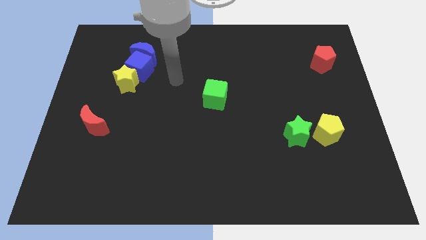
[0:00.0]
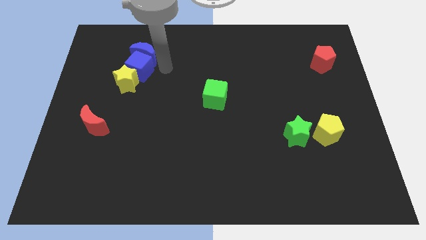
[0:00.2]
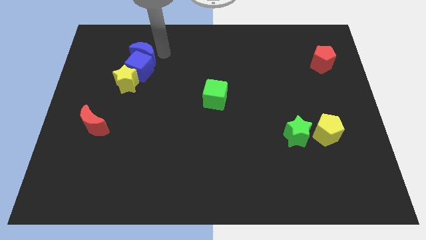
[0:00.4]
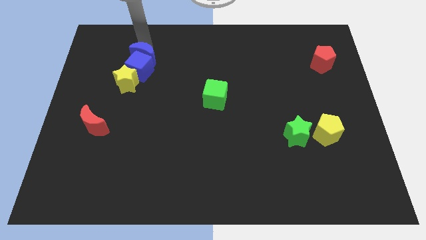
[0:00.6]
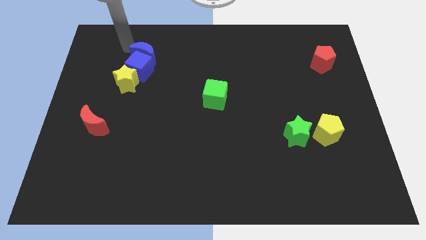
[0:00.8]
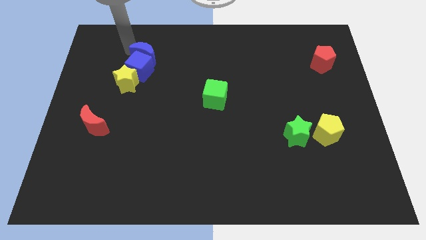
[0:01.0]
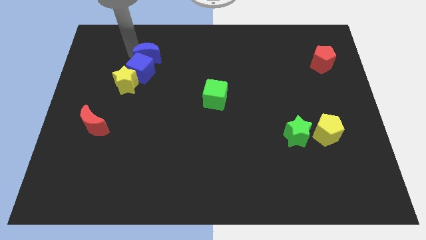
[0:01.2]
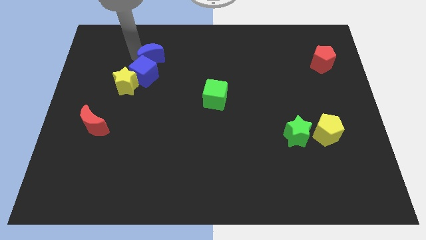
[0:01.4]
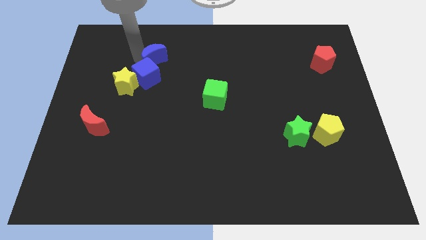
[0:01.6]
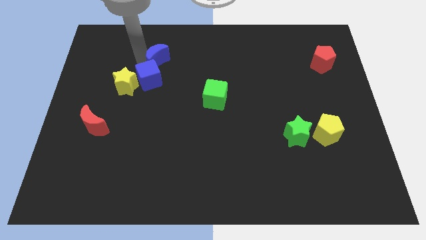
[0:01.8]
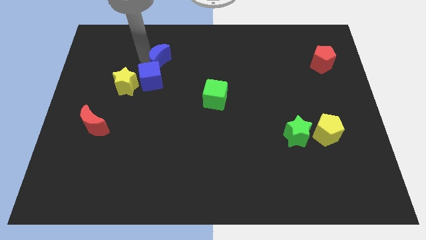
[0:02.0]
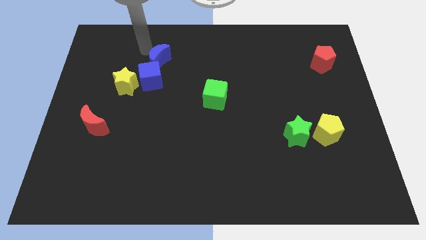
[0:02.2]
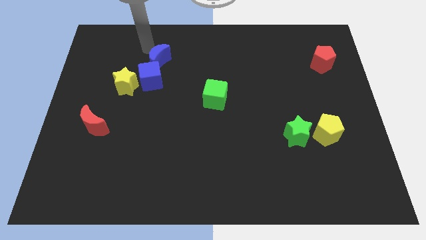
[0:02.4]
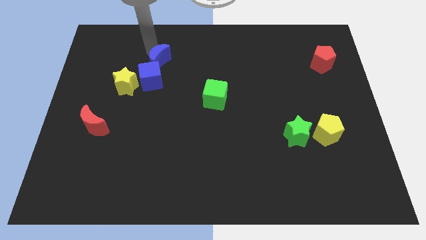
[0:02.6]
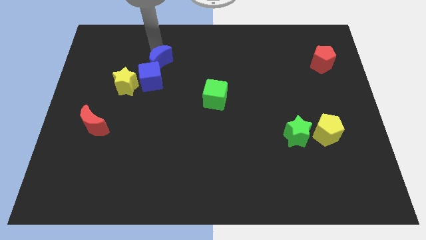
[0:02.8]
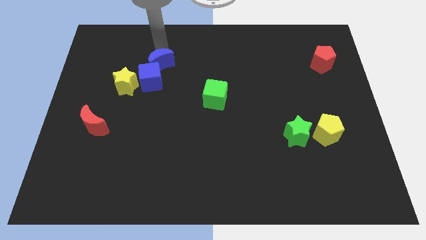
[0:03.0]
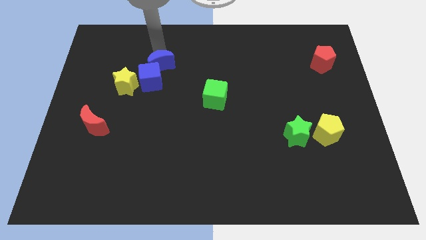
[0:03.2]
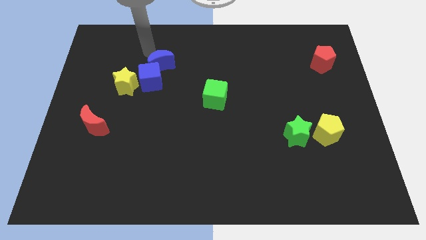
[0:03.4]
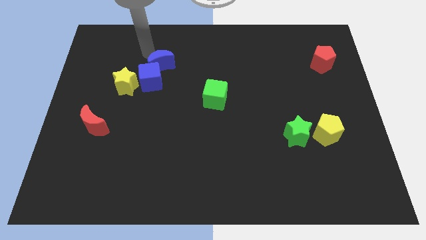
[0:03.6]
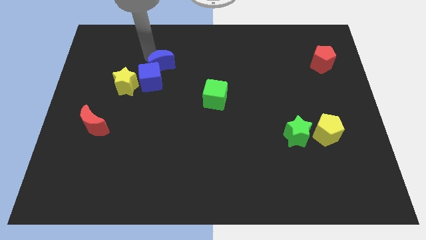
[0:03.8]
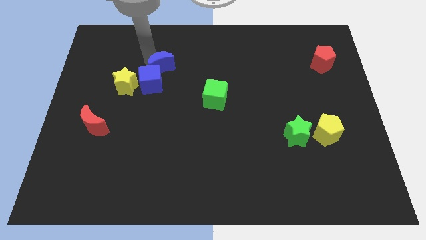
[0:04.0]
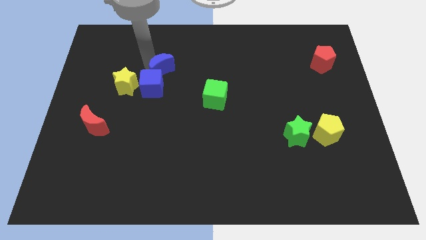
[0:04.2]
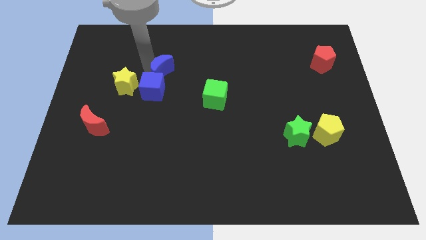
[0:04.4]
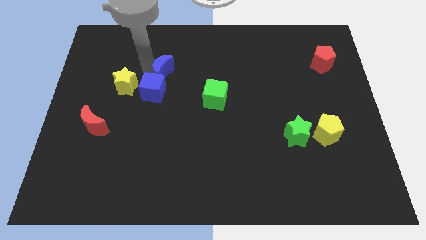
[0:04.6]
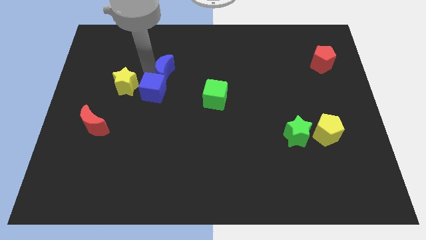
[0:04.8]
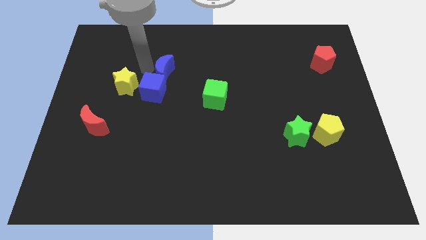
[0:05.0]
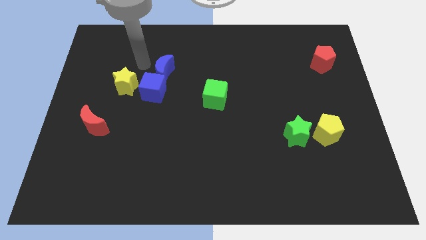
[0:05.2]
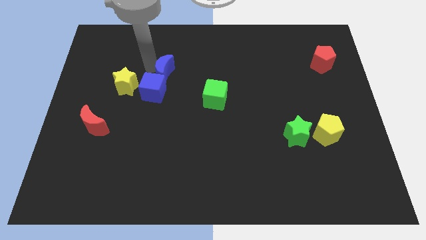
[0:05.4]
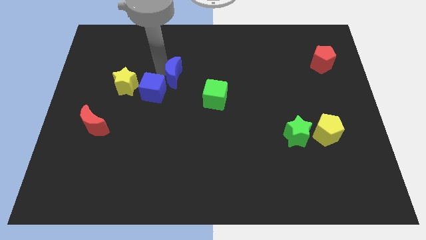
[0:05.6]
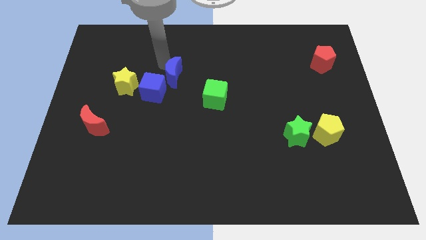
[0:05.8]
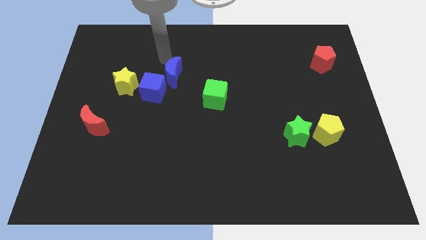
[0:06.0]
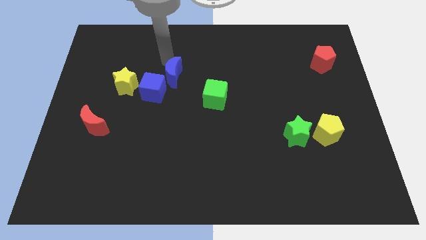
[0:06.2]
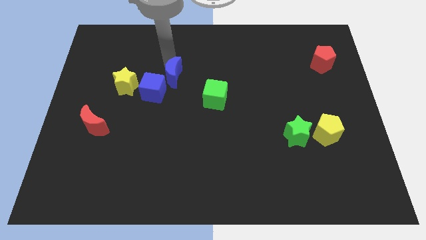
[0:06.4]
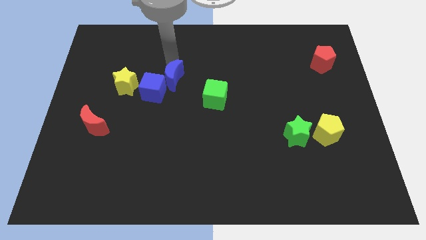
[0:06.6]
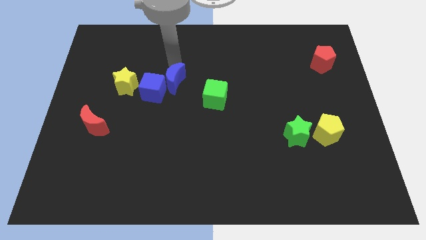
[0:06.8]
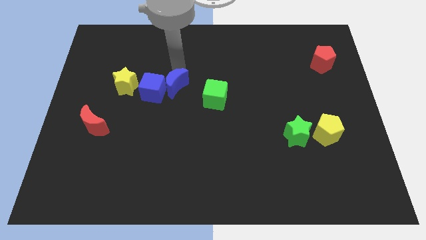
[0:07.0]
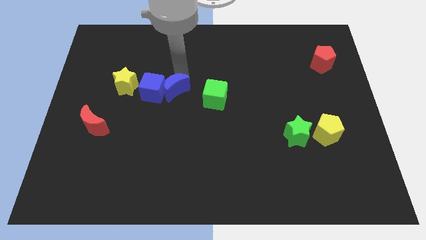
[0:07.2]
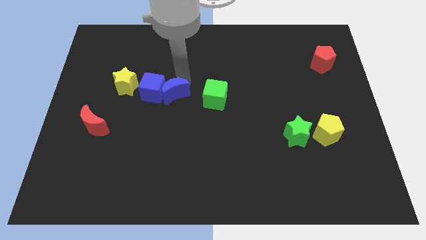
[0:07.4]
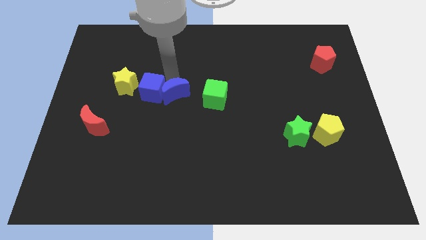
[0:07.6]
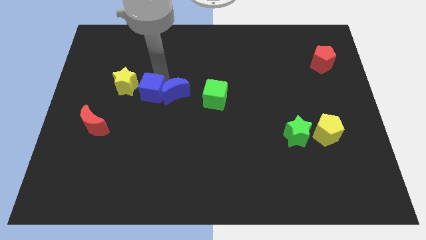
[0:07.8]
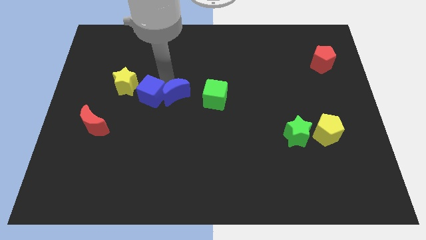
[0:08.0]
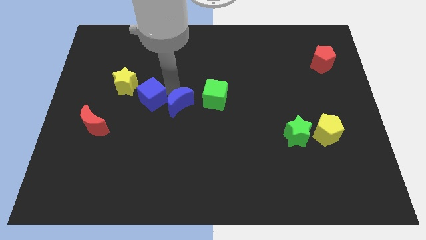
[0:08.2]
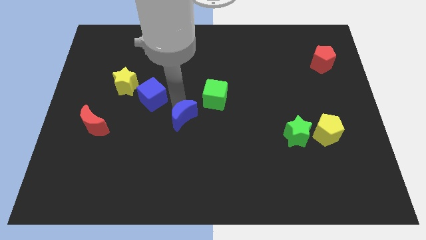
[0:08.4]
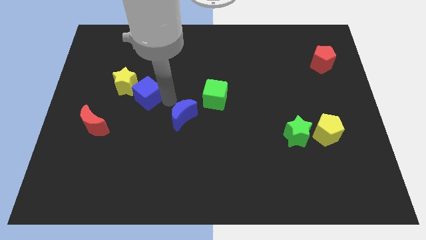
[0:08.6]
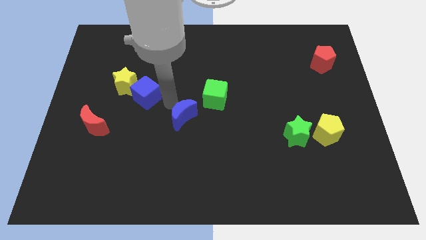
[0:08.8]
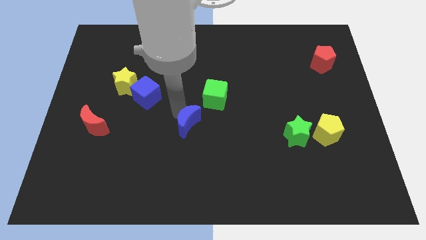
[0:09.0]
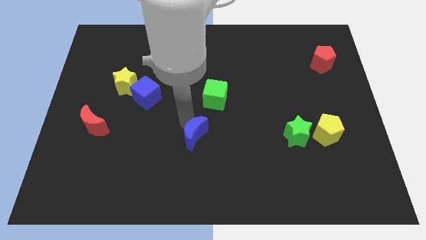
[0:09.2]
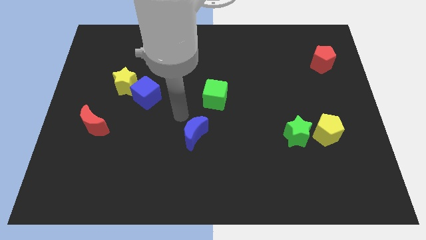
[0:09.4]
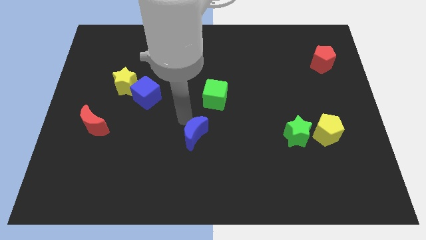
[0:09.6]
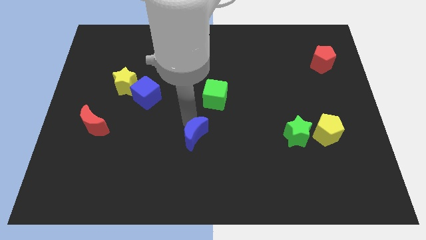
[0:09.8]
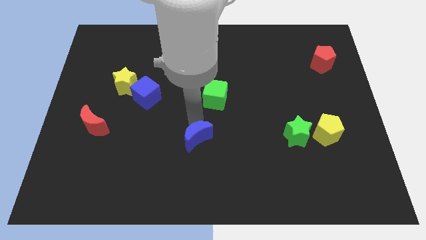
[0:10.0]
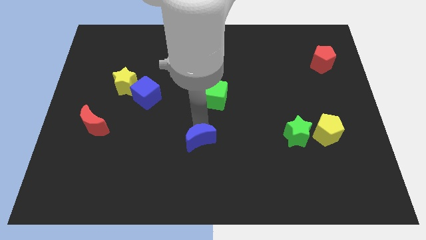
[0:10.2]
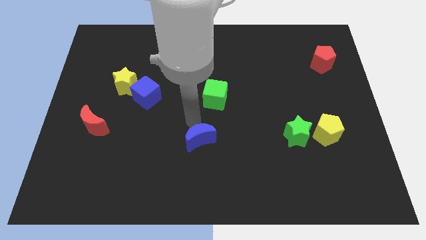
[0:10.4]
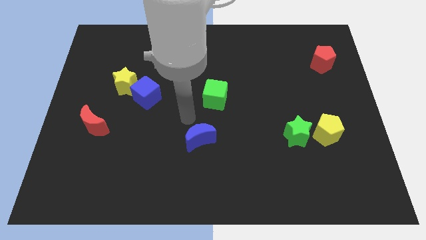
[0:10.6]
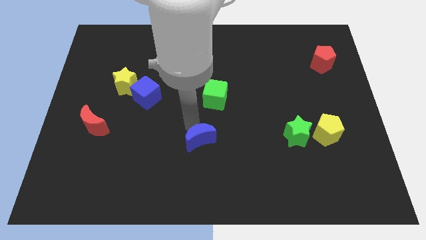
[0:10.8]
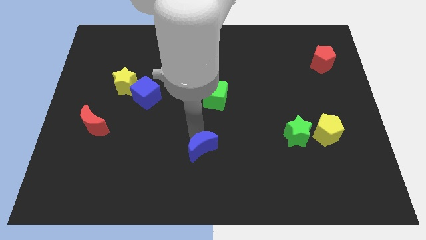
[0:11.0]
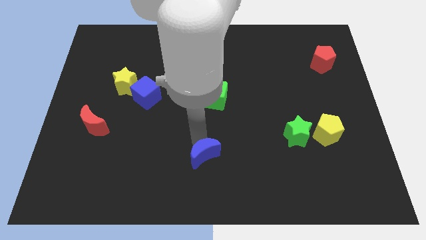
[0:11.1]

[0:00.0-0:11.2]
push the blue moon to the bottom side

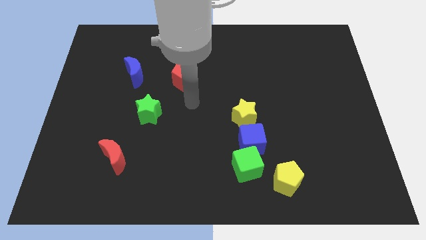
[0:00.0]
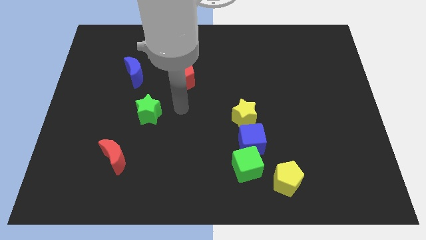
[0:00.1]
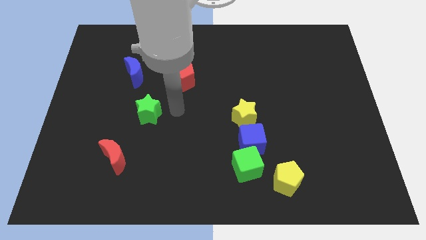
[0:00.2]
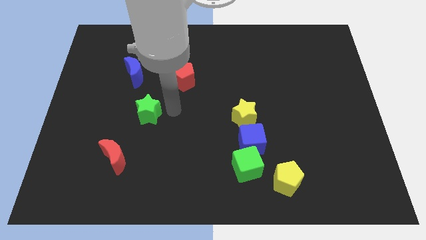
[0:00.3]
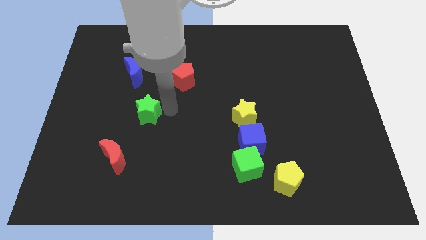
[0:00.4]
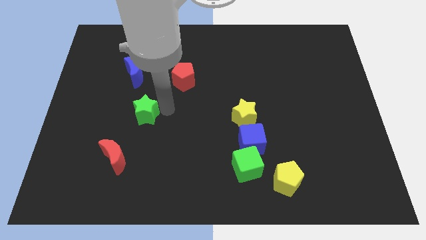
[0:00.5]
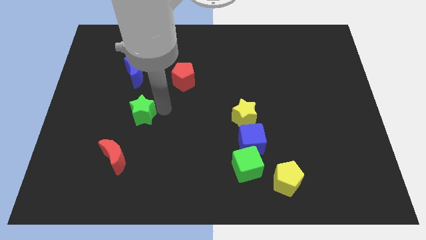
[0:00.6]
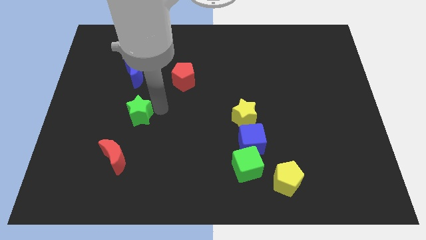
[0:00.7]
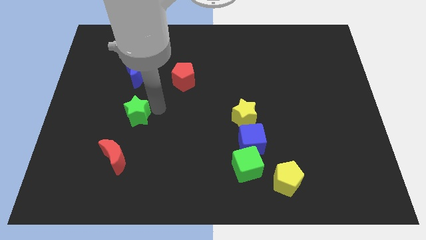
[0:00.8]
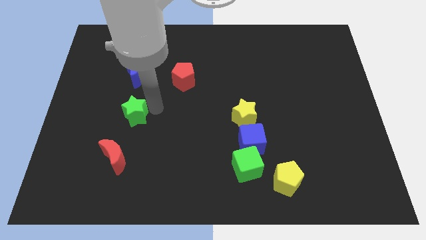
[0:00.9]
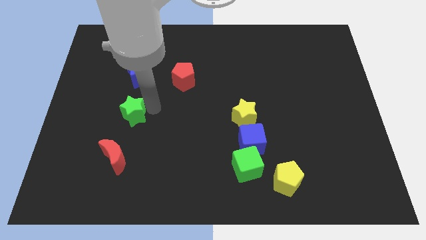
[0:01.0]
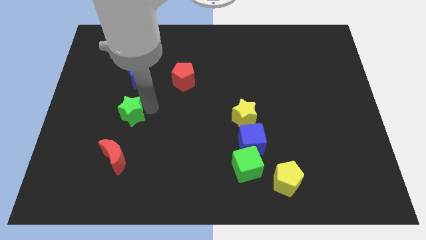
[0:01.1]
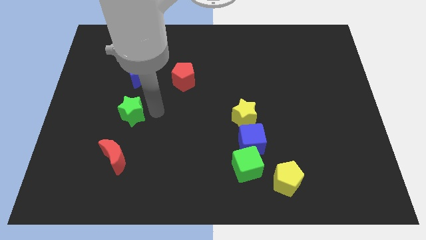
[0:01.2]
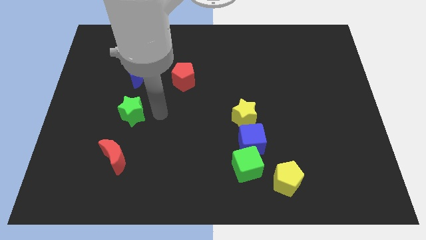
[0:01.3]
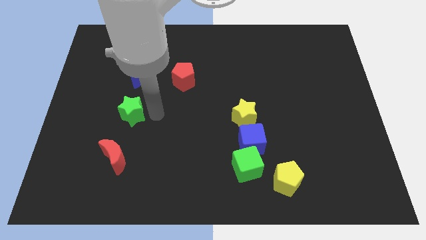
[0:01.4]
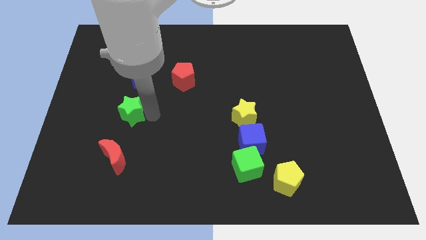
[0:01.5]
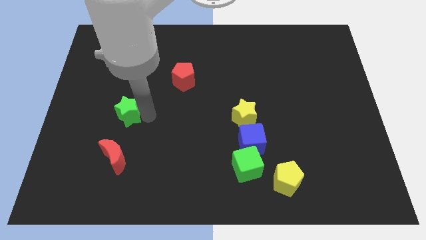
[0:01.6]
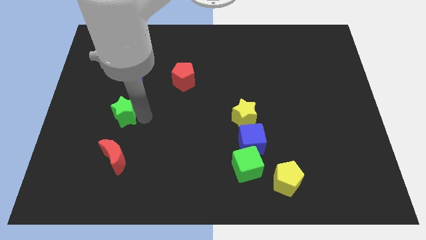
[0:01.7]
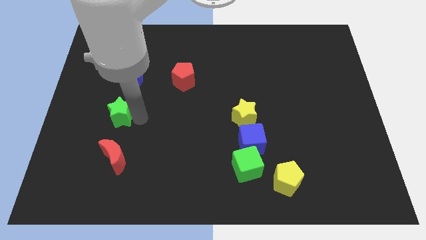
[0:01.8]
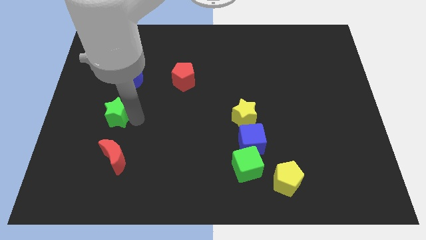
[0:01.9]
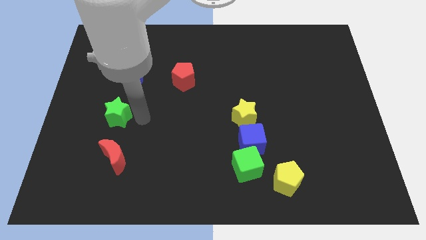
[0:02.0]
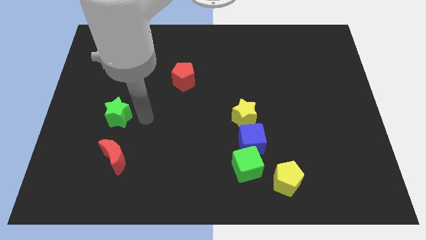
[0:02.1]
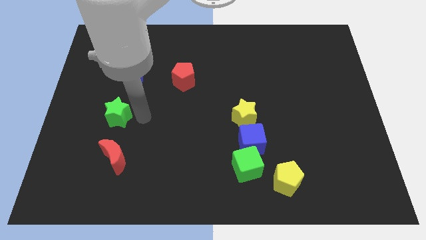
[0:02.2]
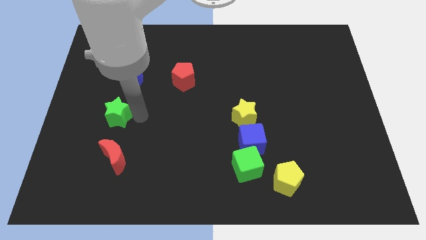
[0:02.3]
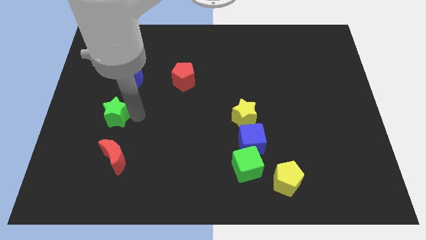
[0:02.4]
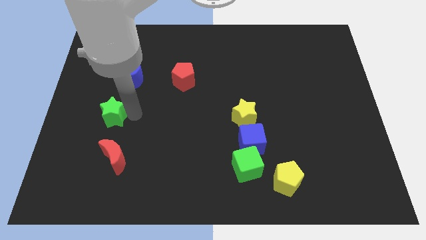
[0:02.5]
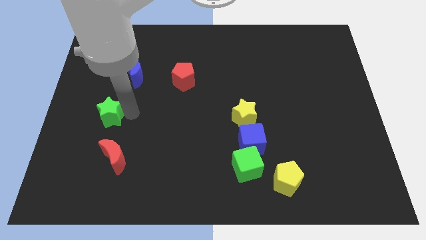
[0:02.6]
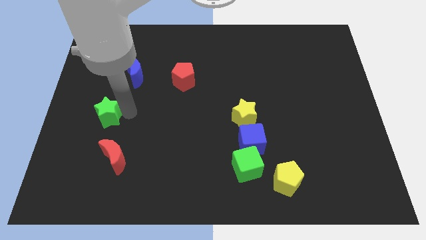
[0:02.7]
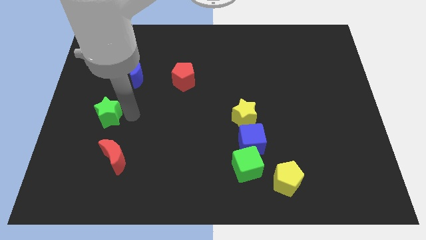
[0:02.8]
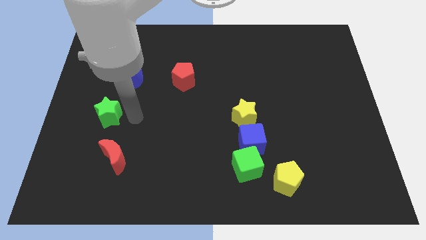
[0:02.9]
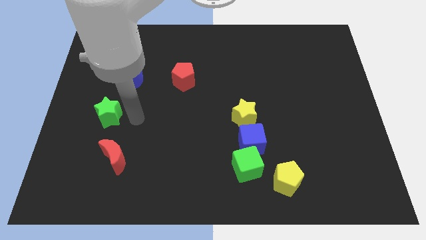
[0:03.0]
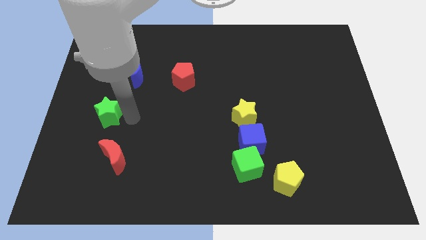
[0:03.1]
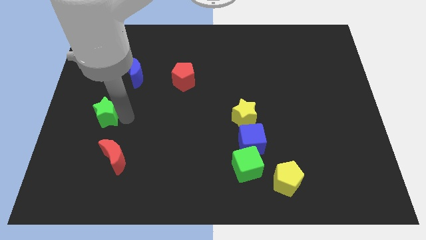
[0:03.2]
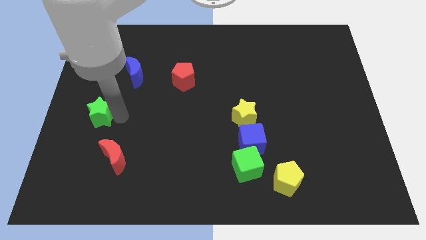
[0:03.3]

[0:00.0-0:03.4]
move the green star to the center left
